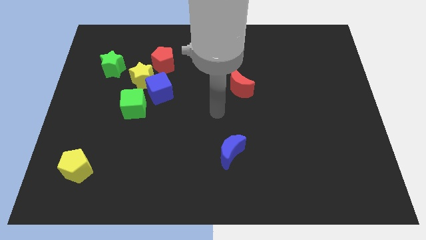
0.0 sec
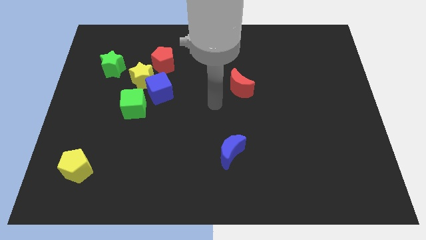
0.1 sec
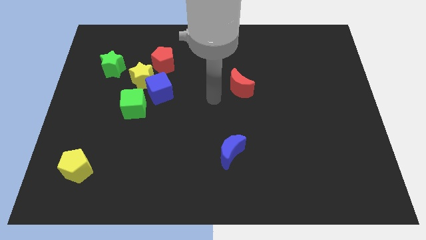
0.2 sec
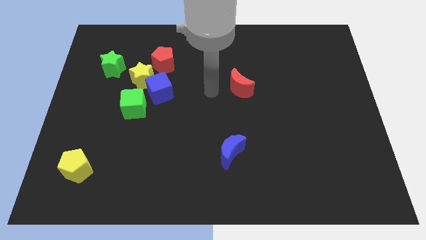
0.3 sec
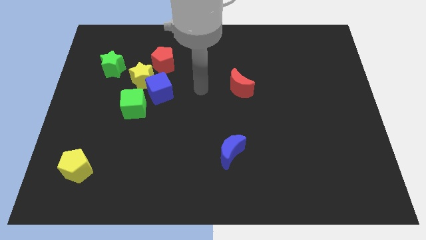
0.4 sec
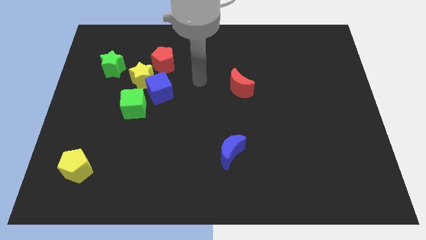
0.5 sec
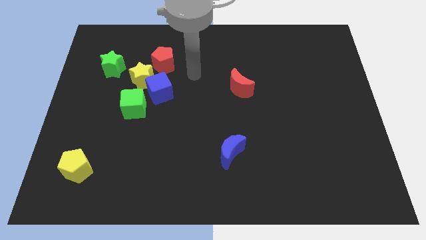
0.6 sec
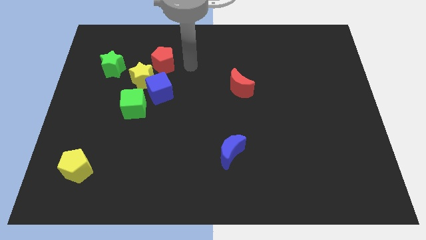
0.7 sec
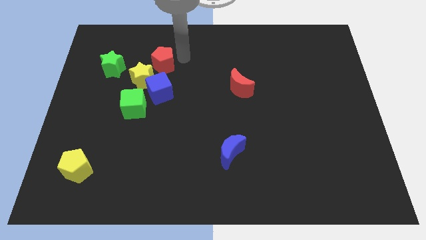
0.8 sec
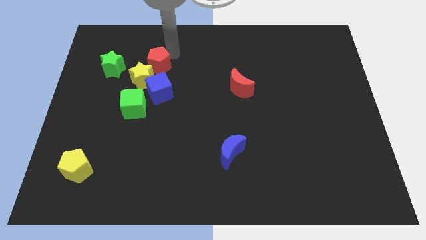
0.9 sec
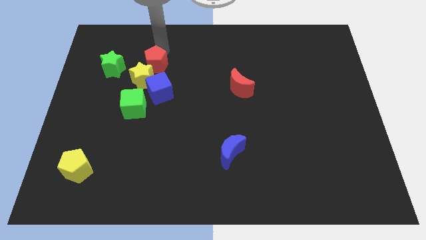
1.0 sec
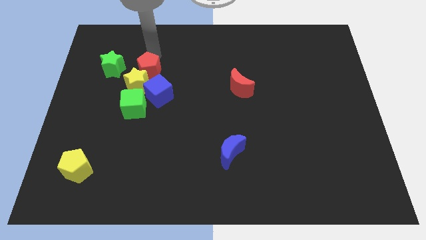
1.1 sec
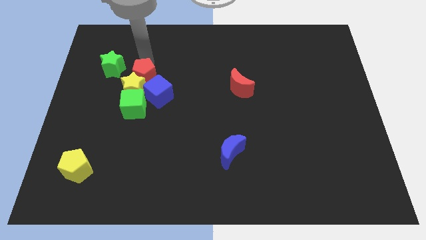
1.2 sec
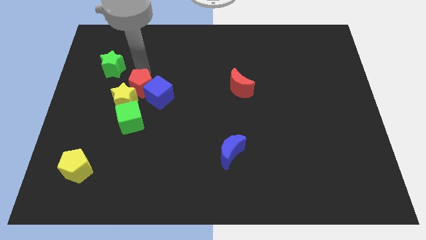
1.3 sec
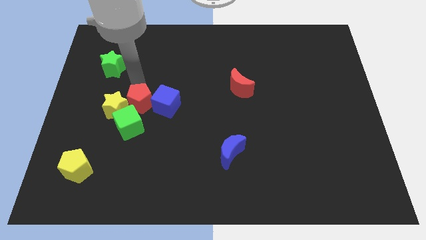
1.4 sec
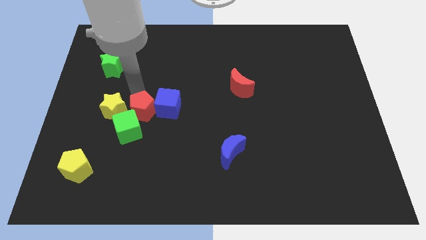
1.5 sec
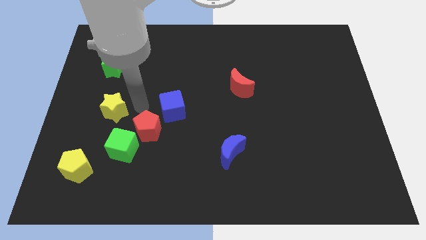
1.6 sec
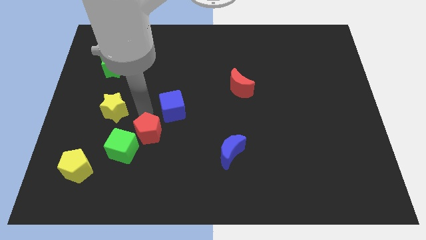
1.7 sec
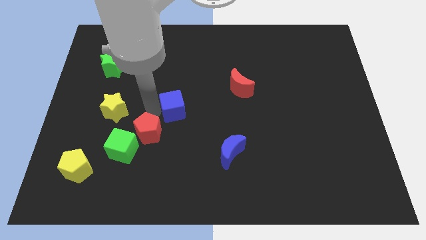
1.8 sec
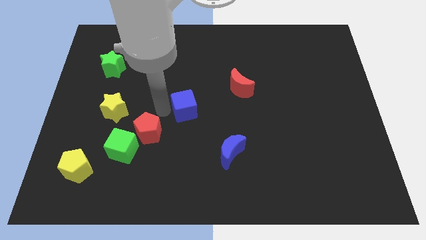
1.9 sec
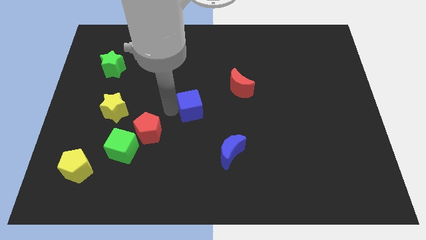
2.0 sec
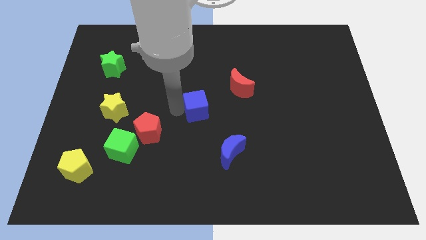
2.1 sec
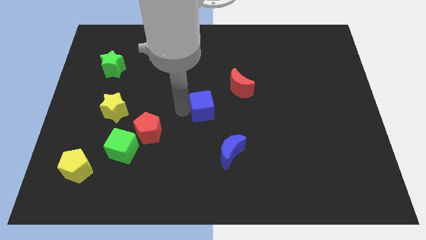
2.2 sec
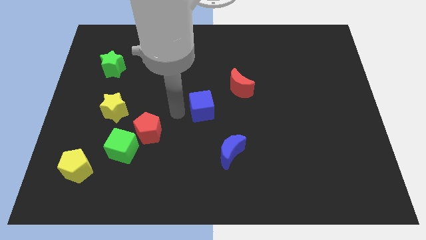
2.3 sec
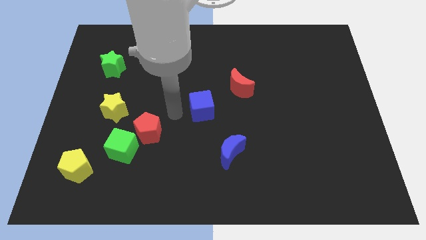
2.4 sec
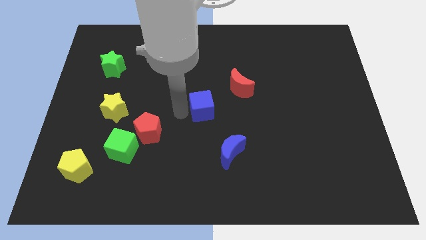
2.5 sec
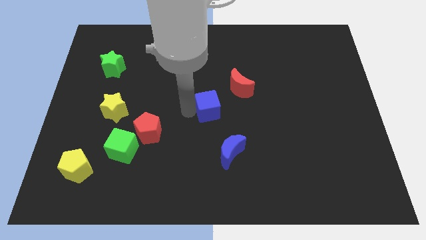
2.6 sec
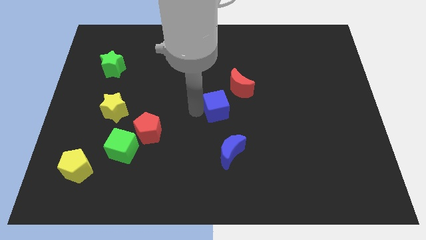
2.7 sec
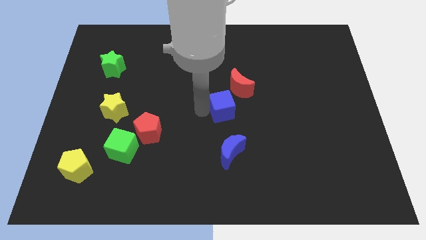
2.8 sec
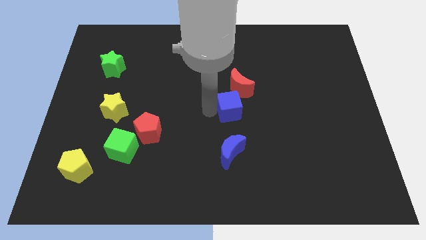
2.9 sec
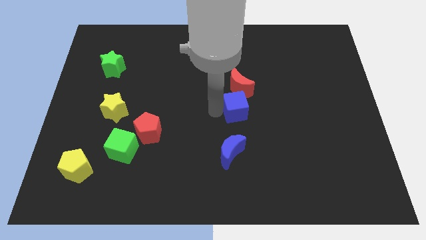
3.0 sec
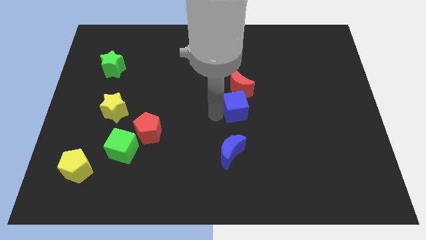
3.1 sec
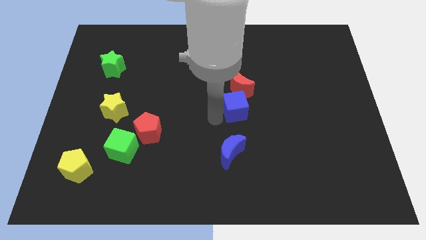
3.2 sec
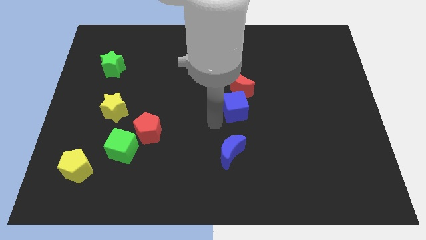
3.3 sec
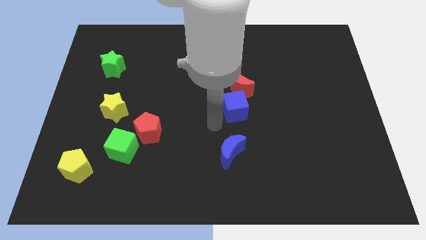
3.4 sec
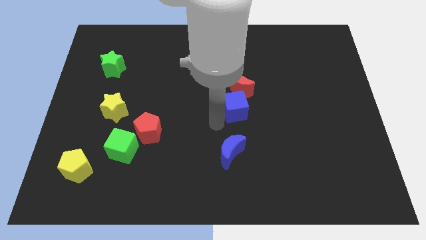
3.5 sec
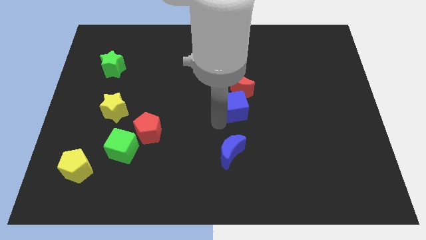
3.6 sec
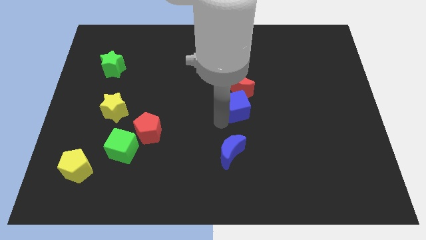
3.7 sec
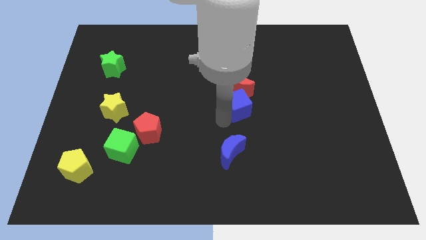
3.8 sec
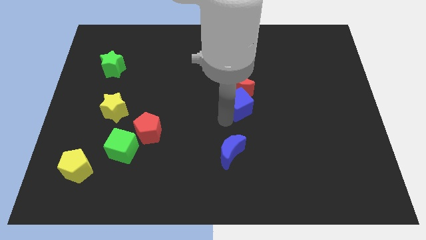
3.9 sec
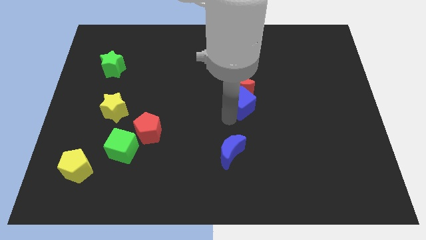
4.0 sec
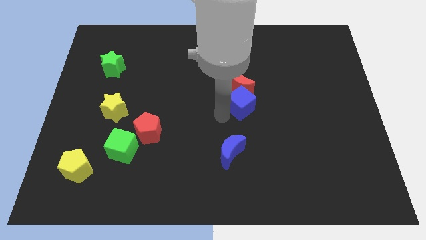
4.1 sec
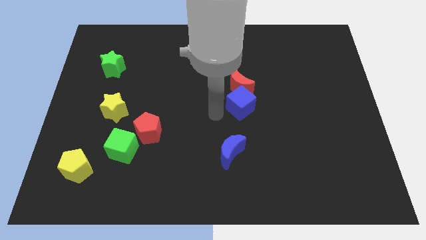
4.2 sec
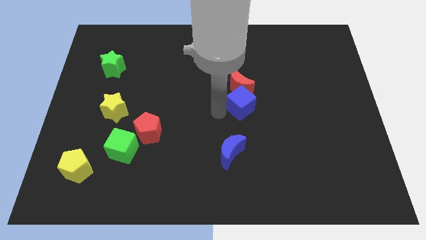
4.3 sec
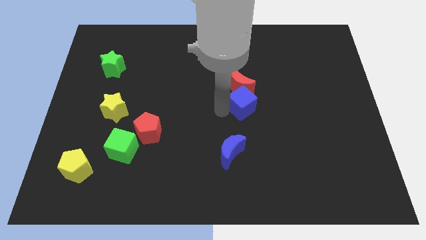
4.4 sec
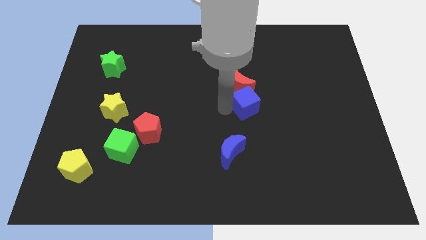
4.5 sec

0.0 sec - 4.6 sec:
push the blue cube to the right

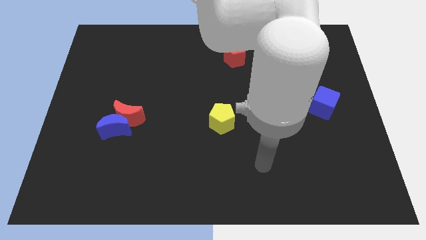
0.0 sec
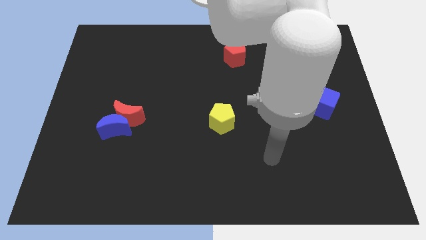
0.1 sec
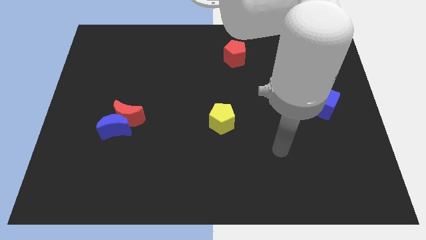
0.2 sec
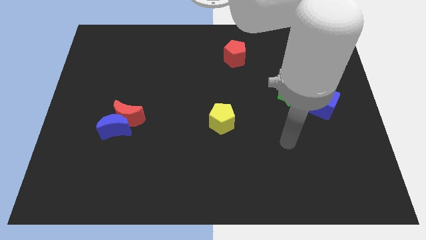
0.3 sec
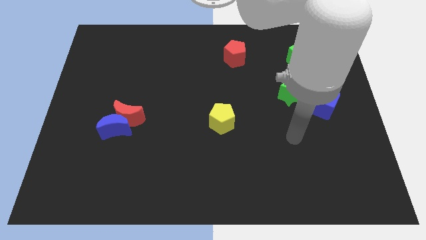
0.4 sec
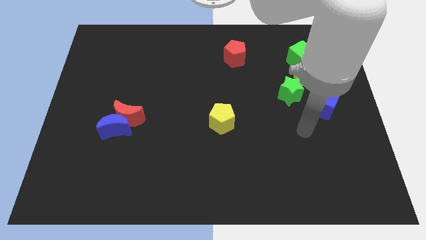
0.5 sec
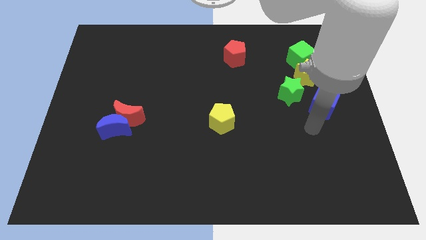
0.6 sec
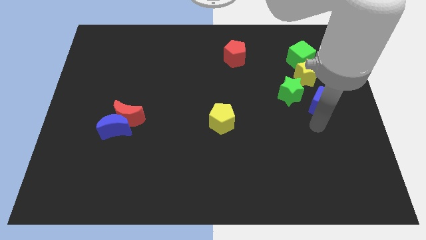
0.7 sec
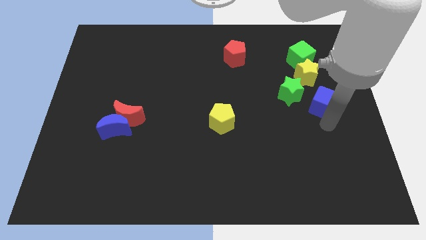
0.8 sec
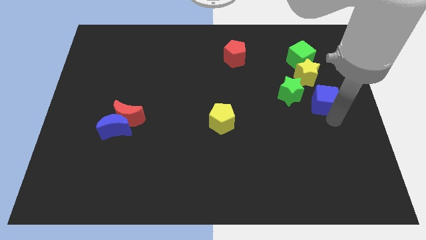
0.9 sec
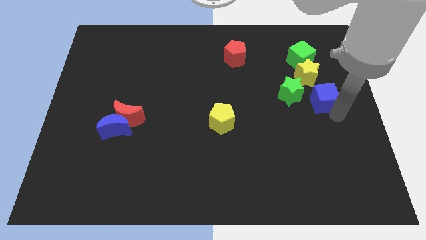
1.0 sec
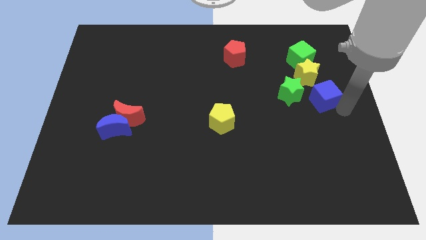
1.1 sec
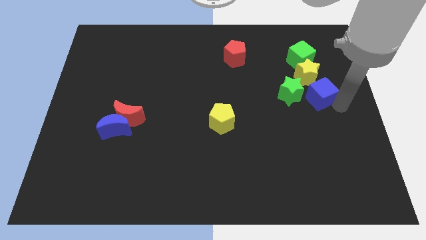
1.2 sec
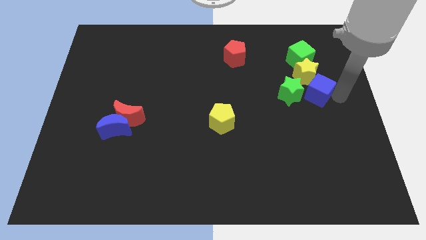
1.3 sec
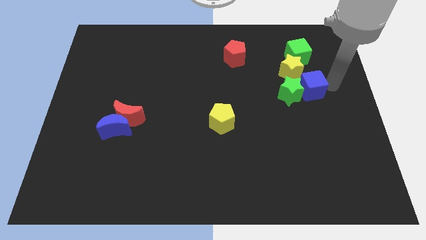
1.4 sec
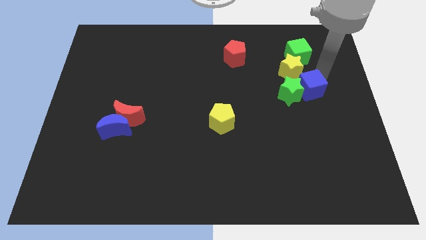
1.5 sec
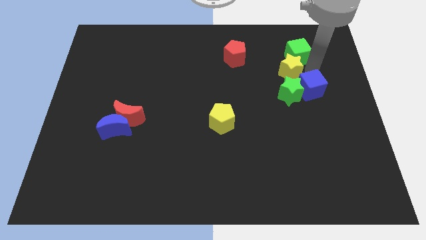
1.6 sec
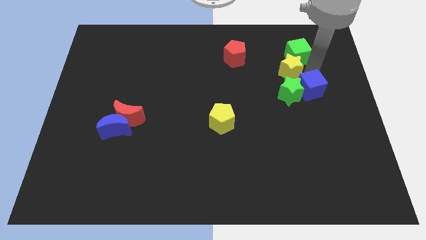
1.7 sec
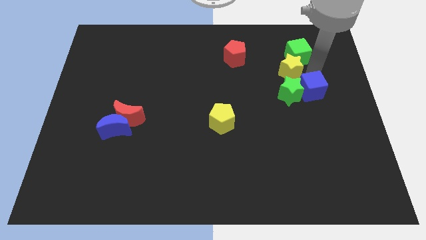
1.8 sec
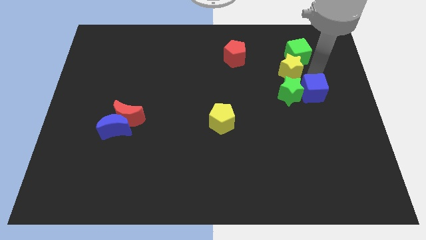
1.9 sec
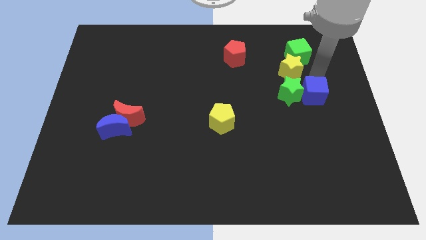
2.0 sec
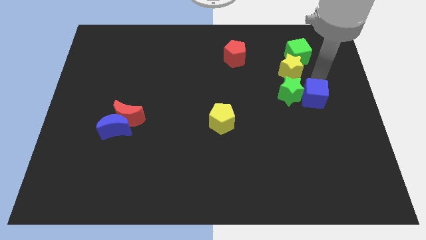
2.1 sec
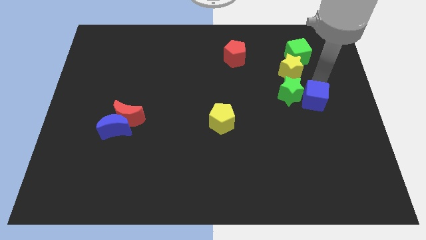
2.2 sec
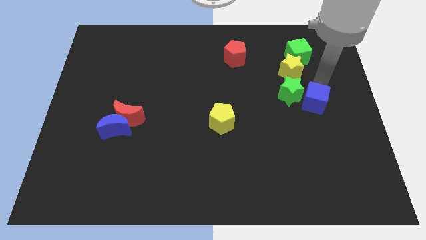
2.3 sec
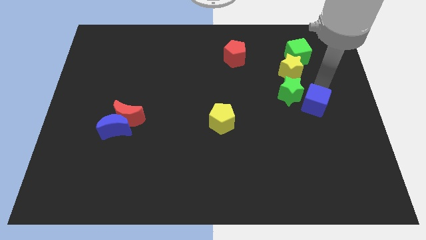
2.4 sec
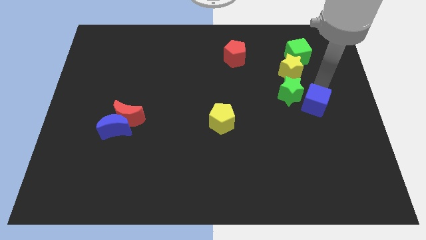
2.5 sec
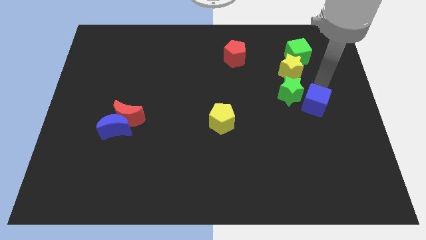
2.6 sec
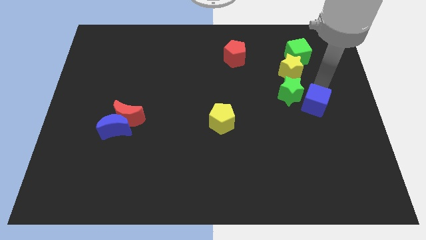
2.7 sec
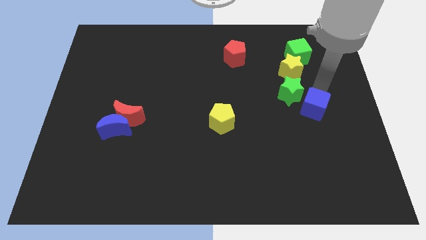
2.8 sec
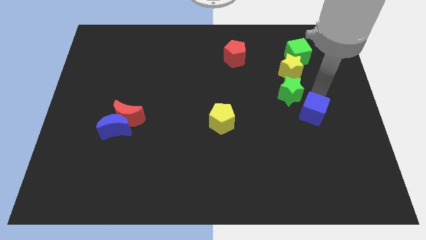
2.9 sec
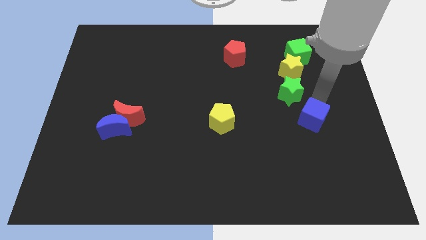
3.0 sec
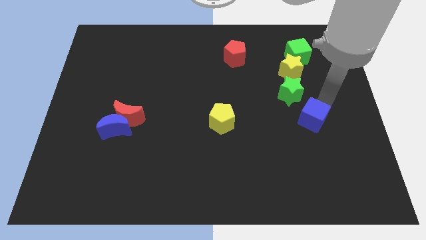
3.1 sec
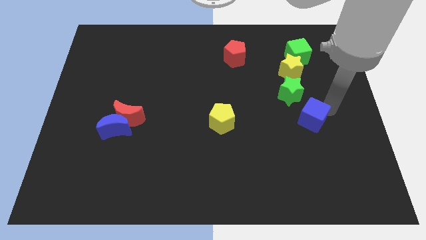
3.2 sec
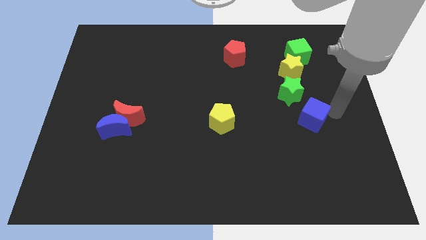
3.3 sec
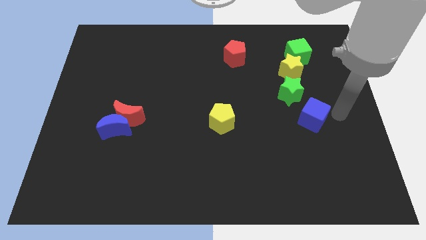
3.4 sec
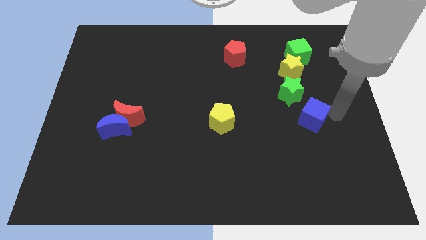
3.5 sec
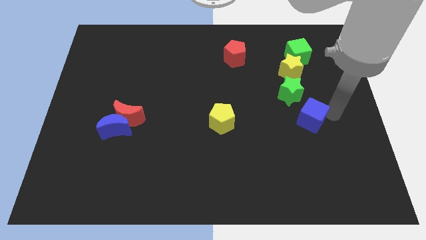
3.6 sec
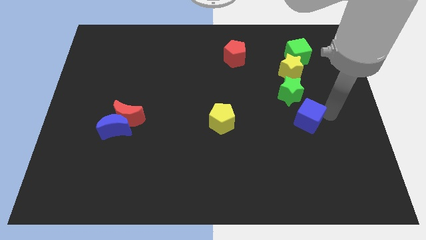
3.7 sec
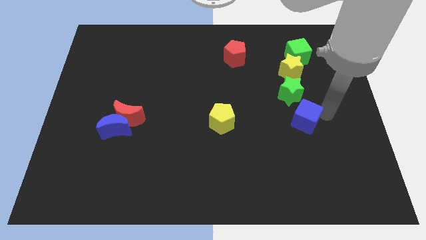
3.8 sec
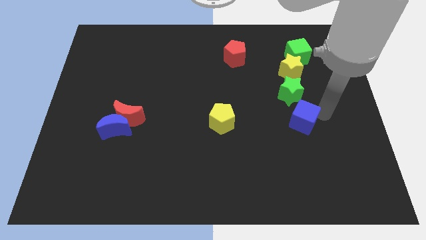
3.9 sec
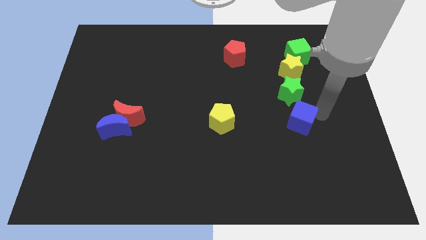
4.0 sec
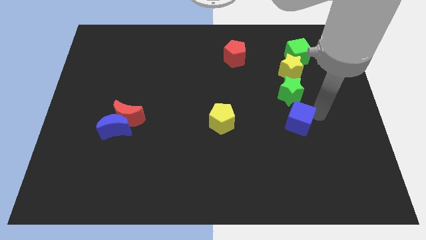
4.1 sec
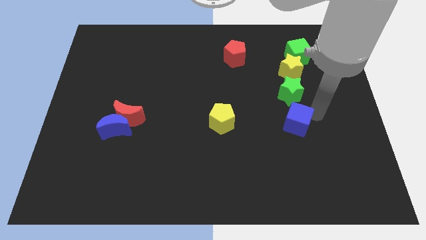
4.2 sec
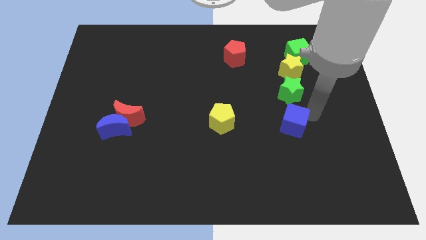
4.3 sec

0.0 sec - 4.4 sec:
slightly move the blue cube left
